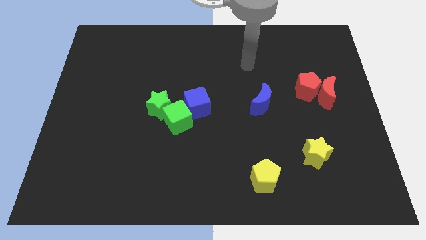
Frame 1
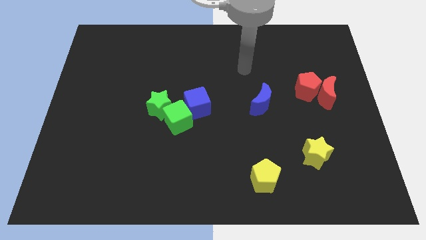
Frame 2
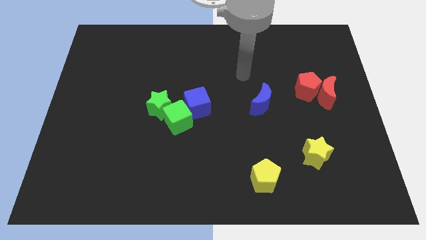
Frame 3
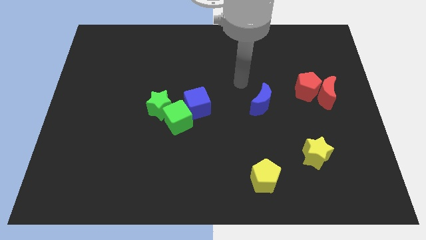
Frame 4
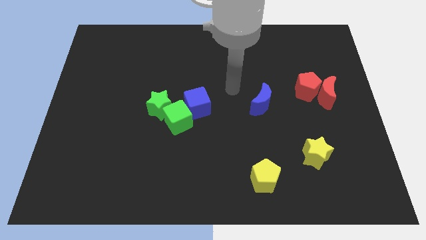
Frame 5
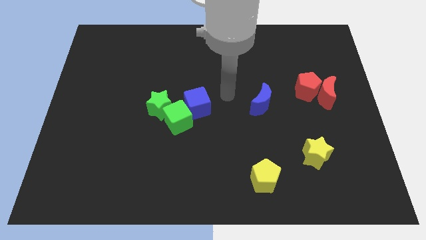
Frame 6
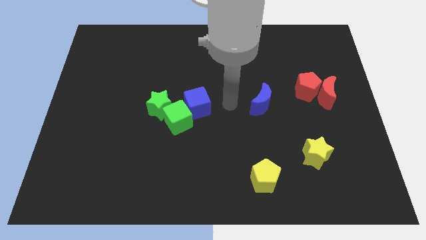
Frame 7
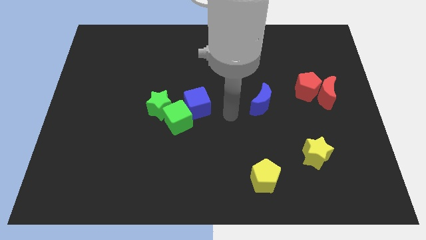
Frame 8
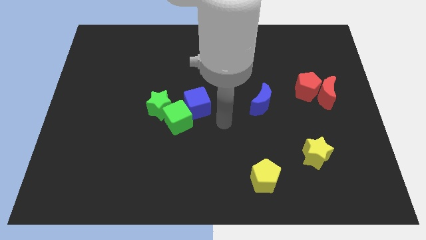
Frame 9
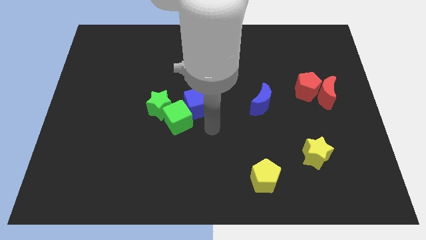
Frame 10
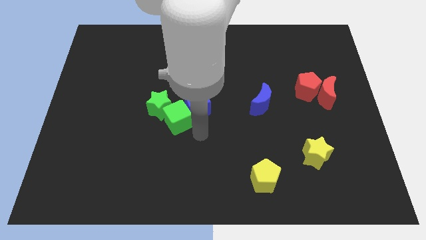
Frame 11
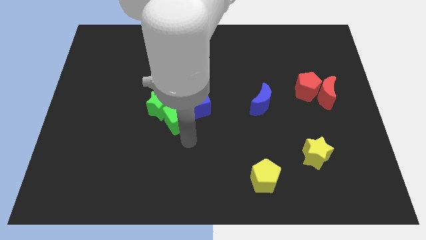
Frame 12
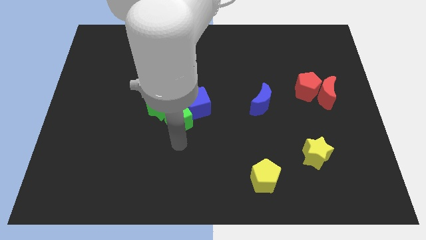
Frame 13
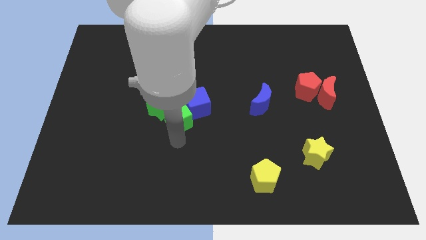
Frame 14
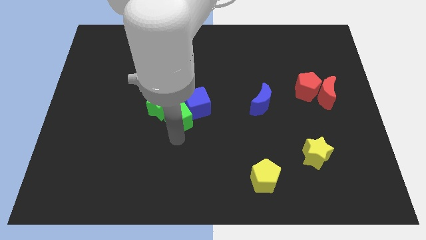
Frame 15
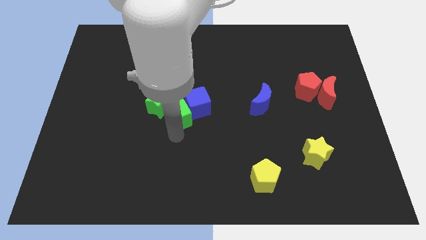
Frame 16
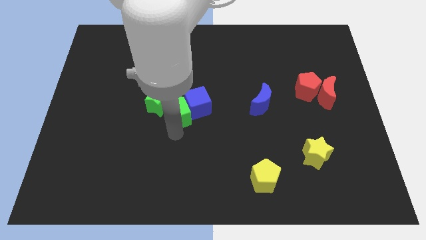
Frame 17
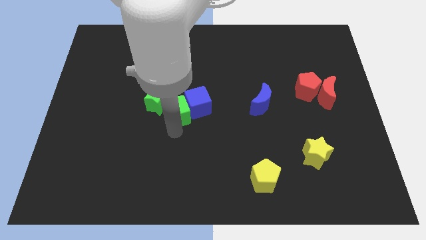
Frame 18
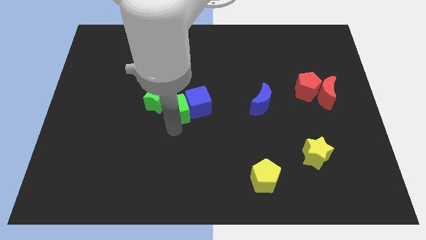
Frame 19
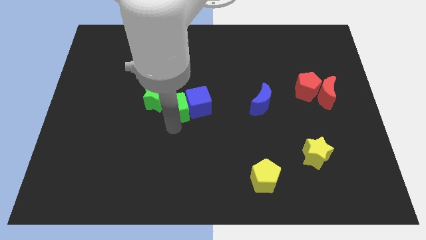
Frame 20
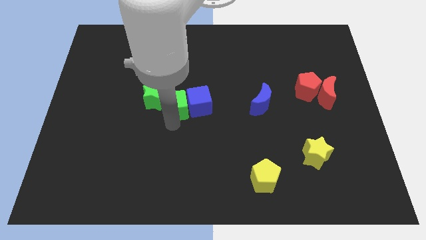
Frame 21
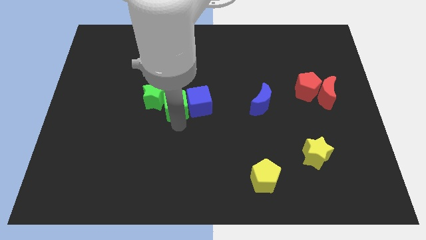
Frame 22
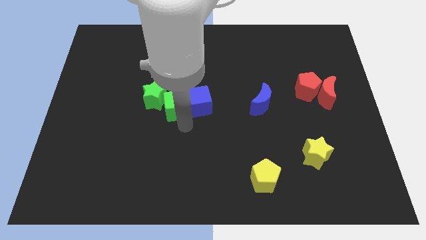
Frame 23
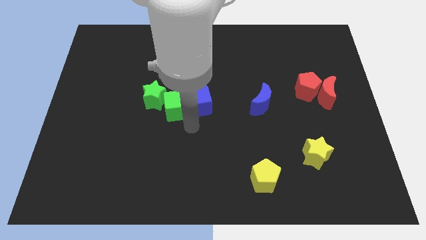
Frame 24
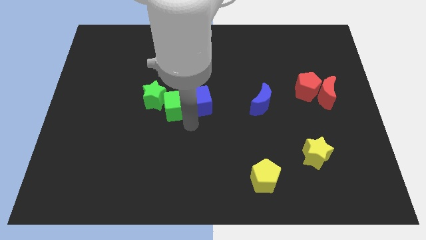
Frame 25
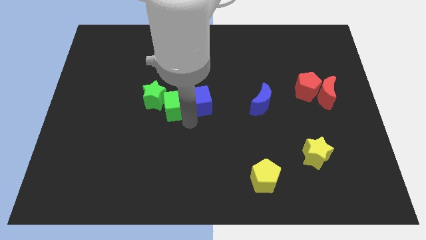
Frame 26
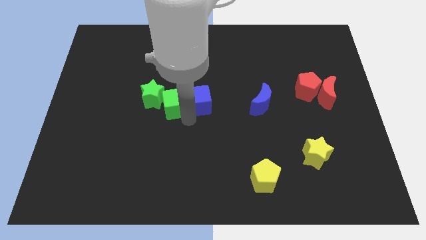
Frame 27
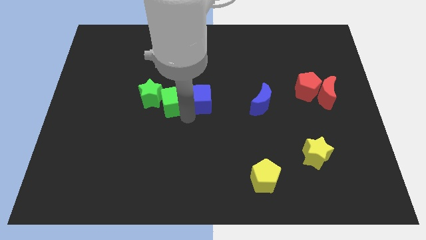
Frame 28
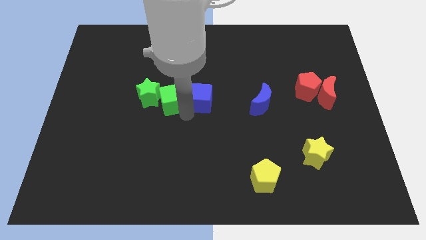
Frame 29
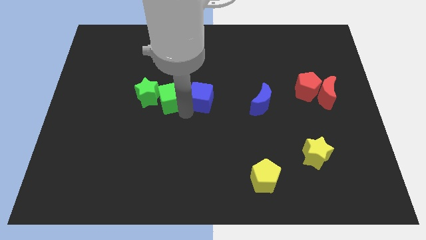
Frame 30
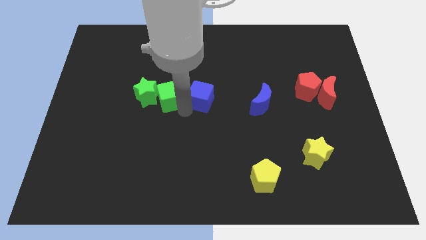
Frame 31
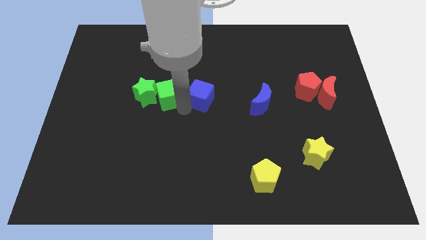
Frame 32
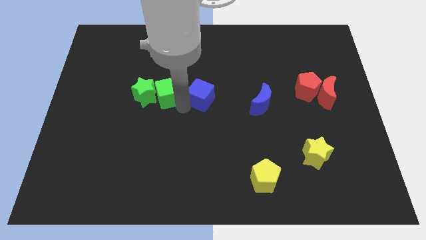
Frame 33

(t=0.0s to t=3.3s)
slightly move the green cube upwards and to the left

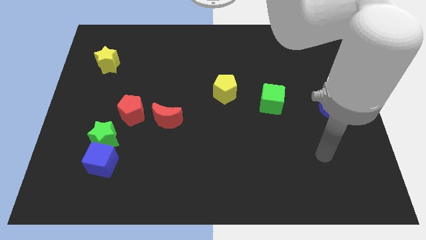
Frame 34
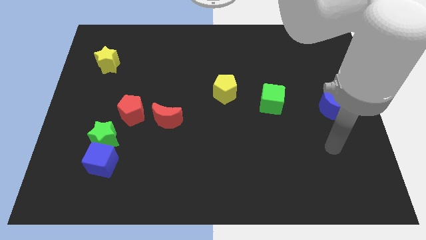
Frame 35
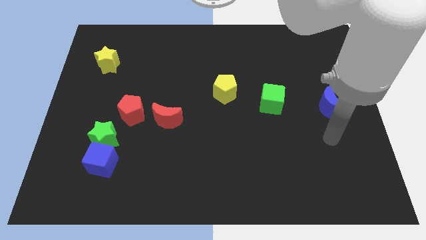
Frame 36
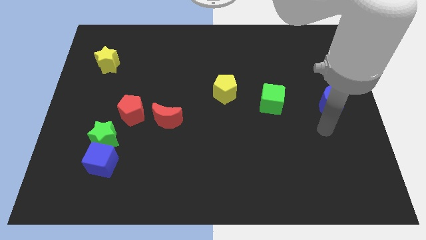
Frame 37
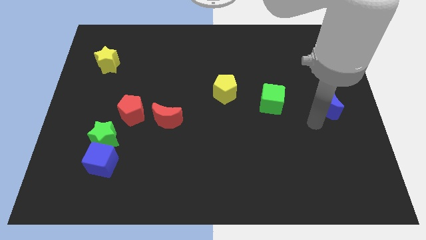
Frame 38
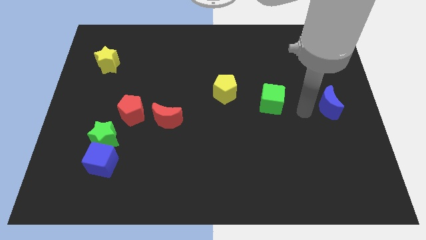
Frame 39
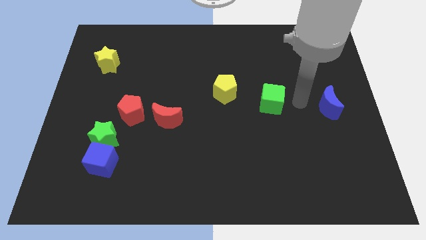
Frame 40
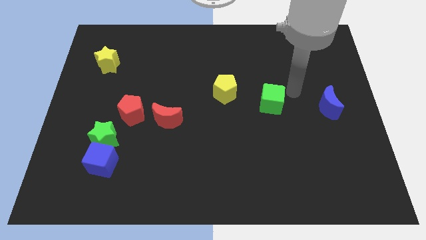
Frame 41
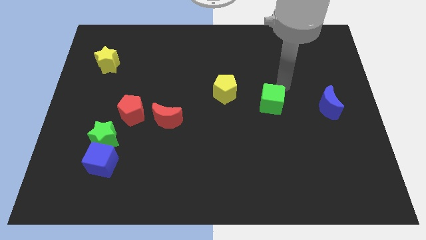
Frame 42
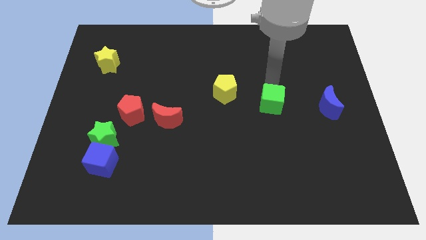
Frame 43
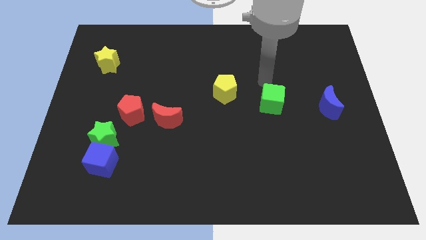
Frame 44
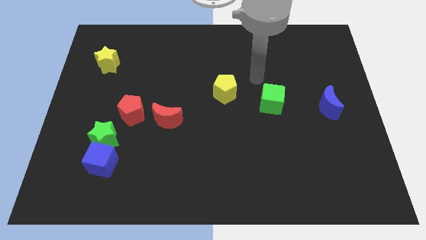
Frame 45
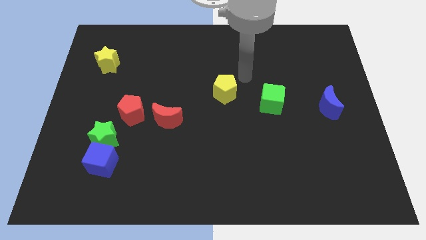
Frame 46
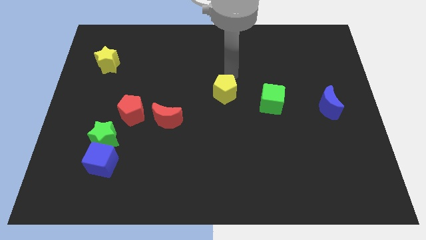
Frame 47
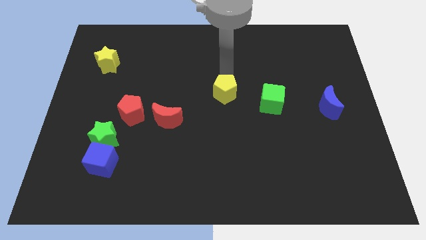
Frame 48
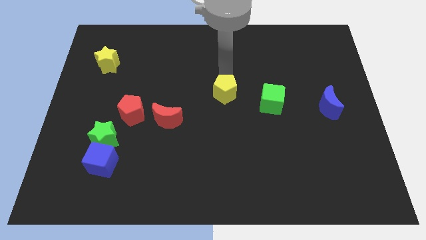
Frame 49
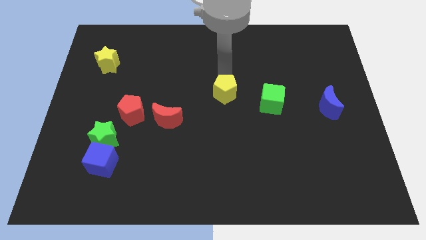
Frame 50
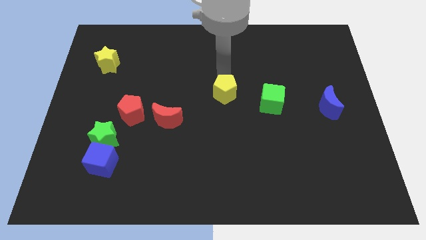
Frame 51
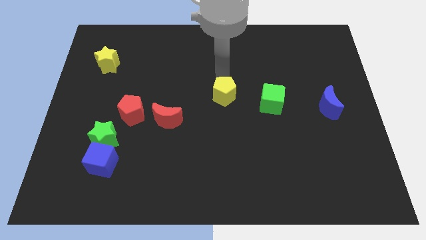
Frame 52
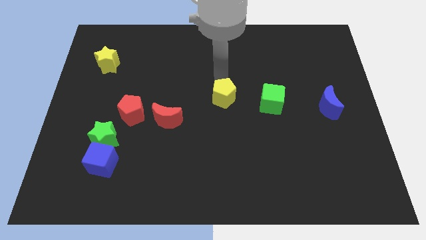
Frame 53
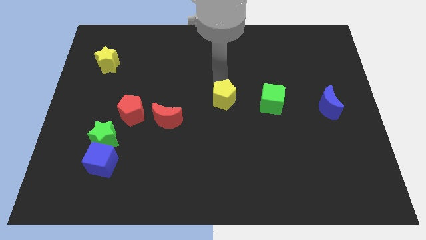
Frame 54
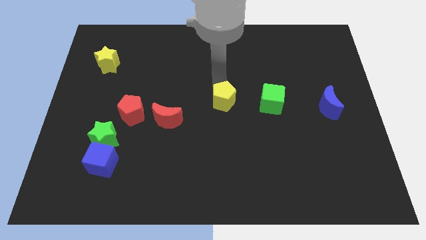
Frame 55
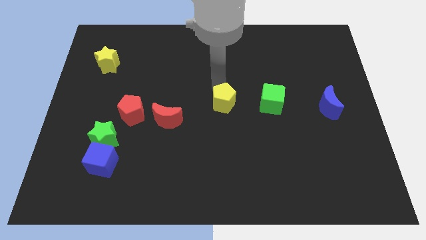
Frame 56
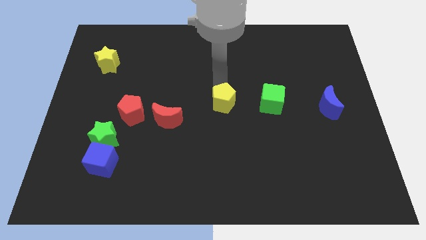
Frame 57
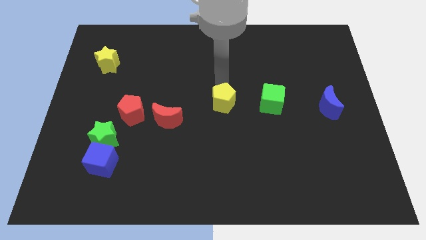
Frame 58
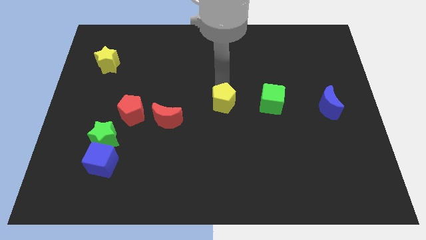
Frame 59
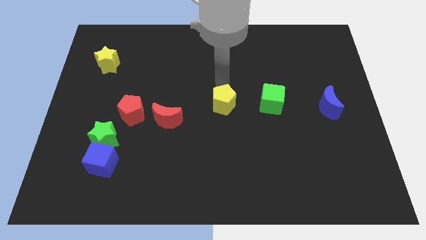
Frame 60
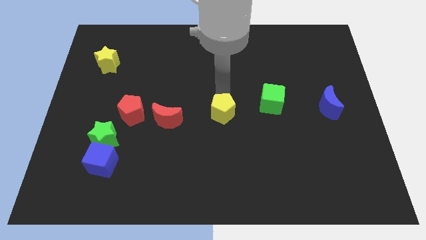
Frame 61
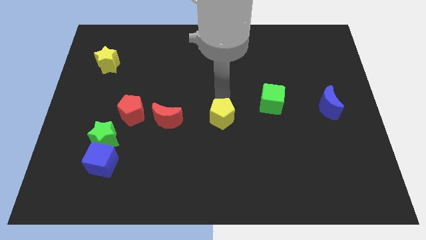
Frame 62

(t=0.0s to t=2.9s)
push the yellow pentagon a little down

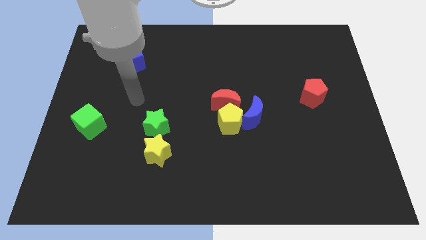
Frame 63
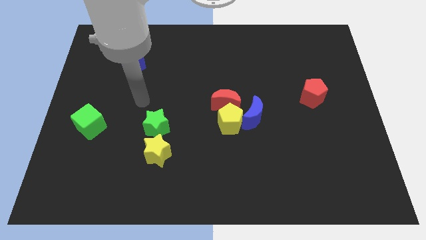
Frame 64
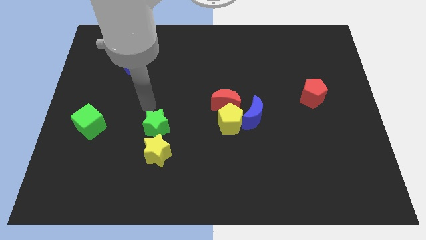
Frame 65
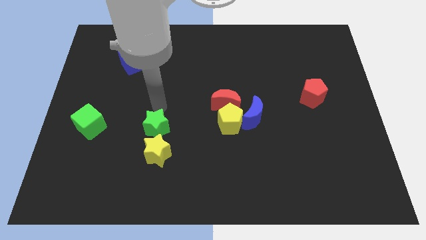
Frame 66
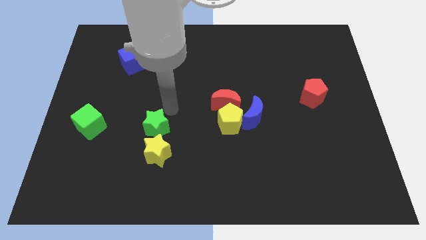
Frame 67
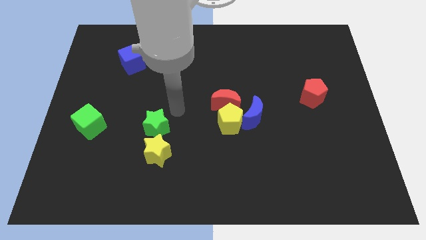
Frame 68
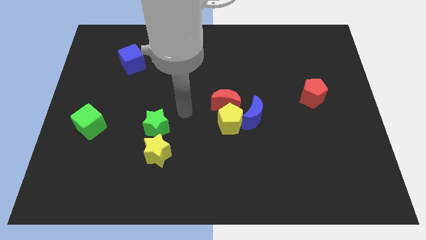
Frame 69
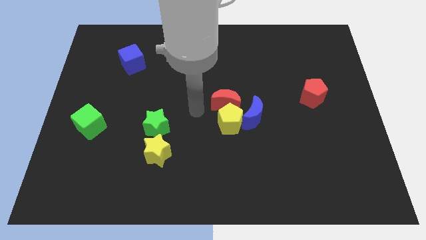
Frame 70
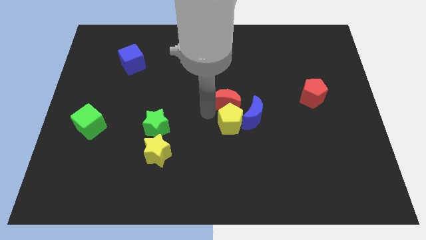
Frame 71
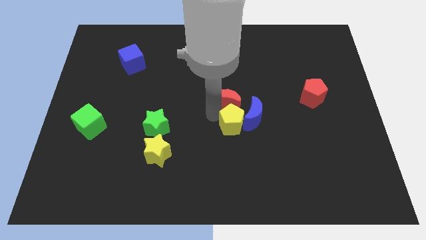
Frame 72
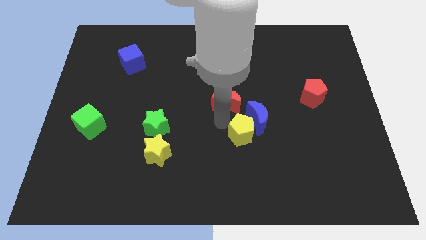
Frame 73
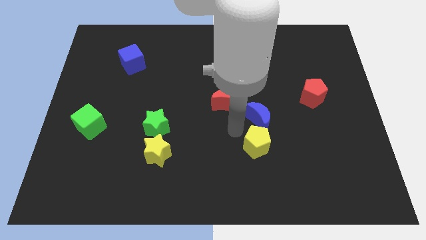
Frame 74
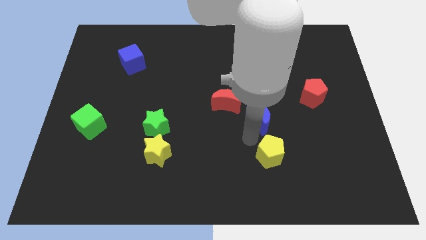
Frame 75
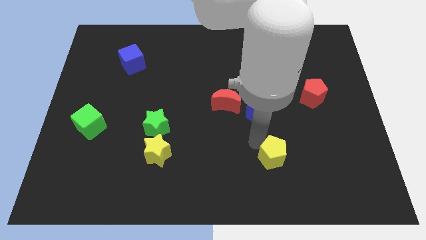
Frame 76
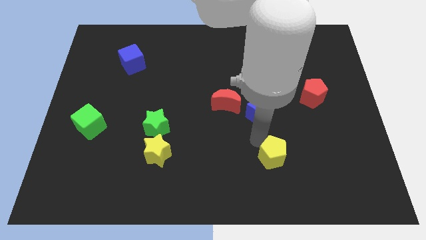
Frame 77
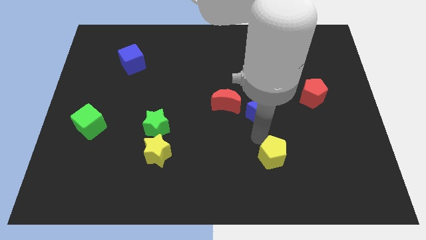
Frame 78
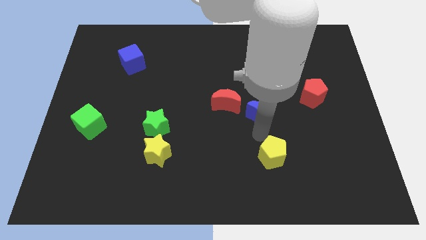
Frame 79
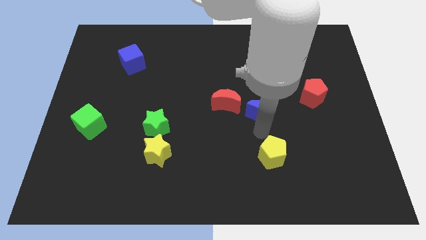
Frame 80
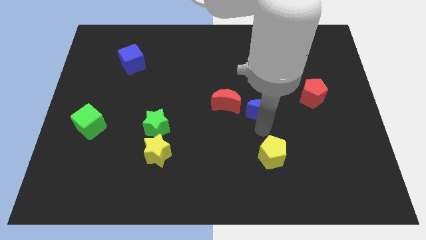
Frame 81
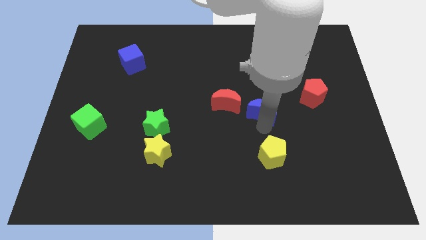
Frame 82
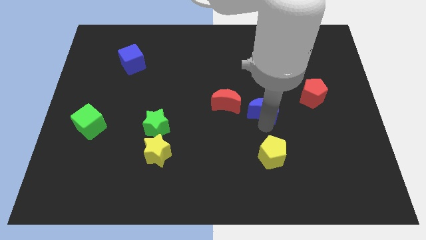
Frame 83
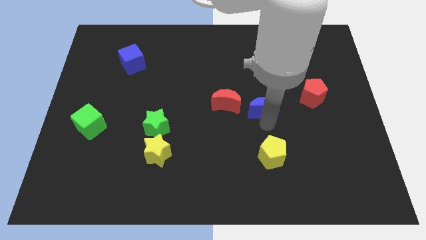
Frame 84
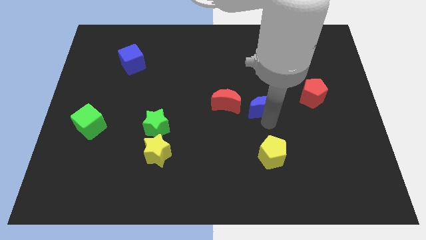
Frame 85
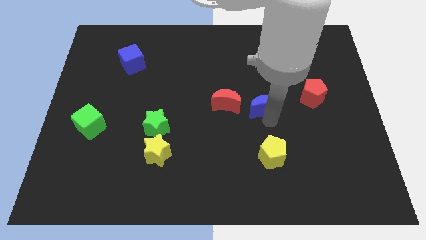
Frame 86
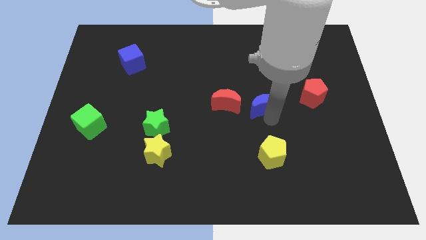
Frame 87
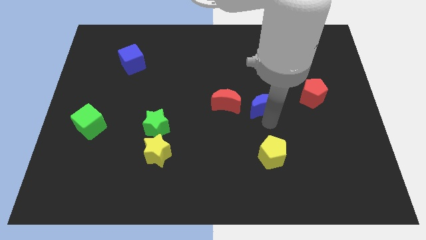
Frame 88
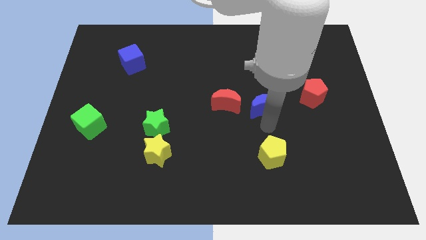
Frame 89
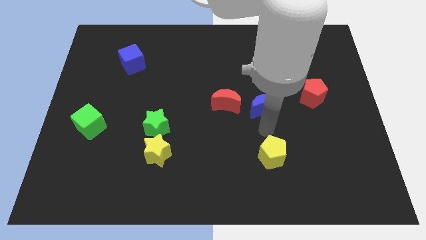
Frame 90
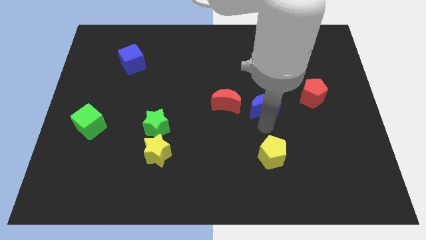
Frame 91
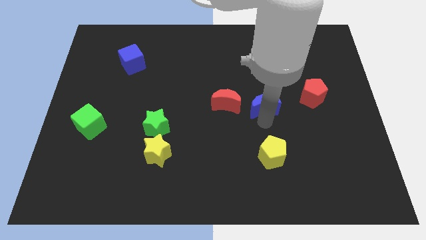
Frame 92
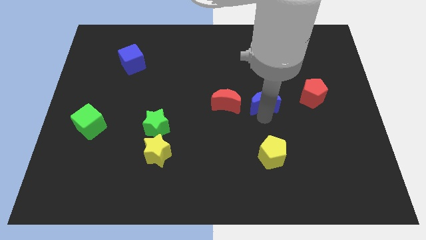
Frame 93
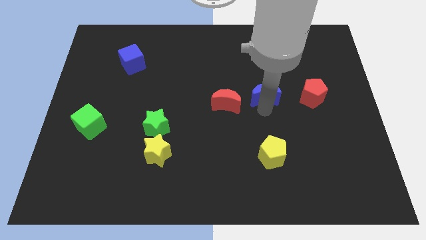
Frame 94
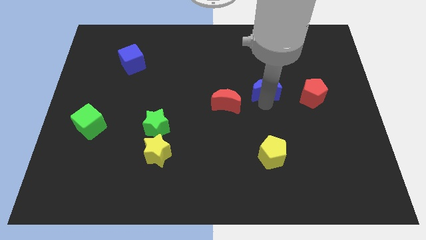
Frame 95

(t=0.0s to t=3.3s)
slightly move the blue moon upwards
